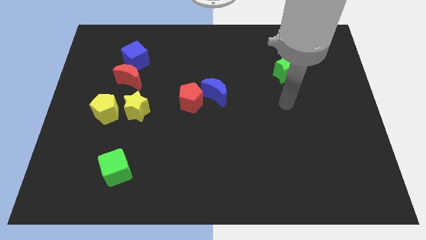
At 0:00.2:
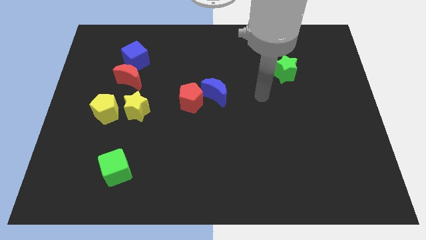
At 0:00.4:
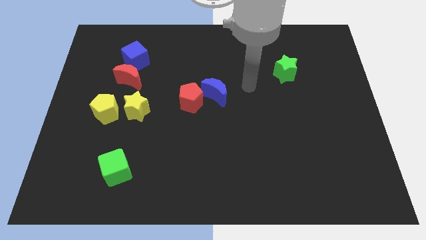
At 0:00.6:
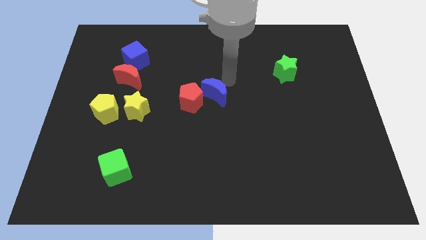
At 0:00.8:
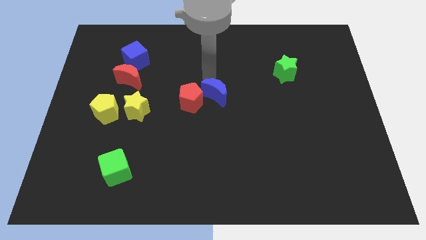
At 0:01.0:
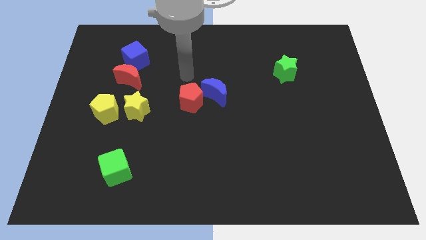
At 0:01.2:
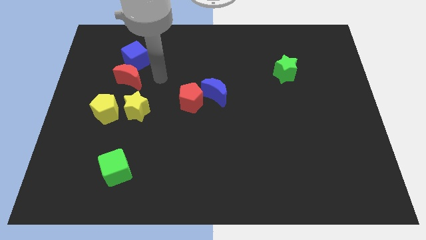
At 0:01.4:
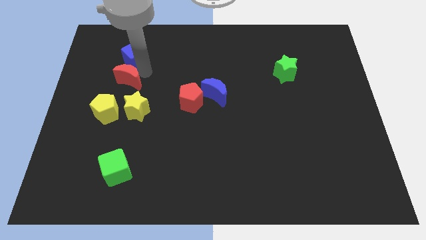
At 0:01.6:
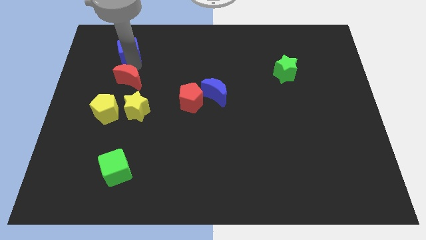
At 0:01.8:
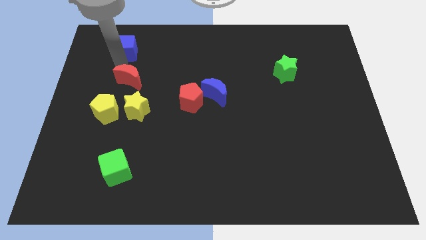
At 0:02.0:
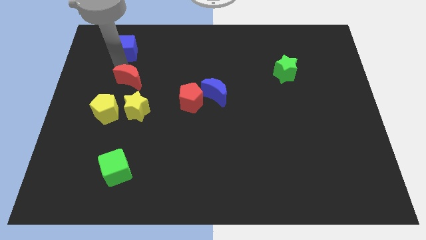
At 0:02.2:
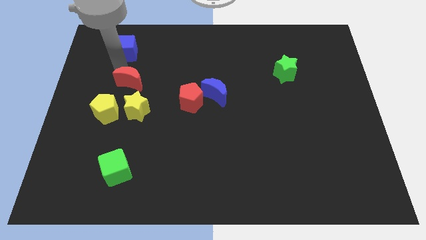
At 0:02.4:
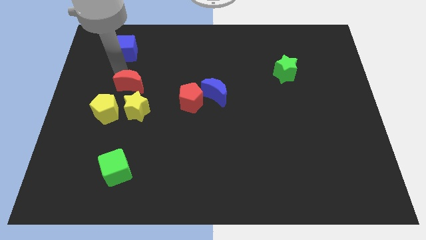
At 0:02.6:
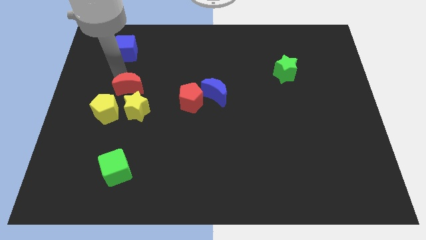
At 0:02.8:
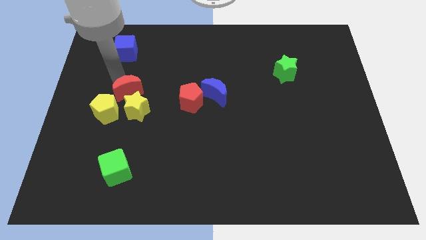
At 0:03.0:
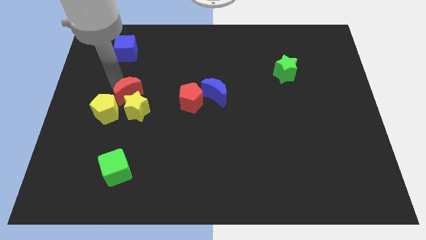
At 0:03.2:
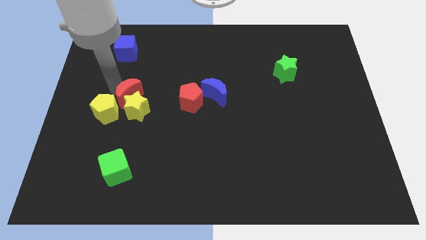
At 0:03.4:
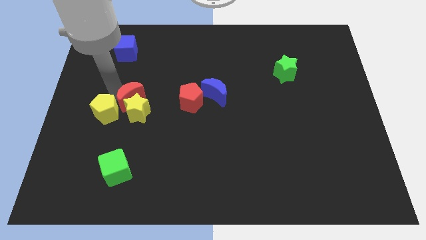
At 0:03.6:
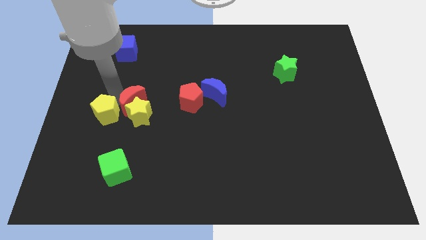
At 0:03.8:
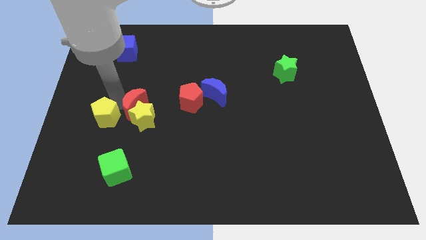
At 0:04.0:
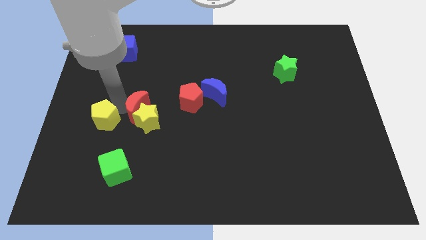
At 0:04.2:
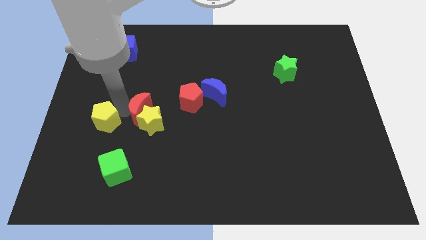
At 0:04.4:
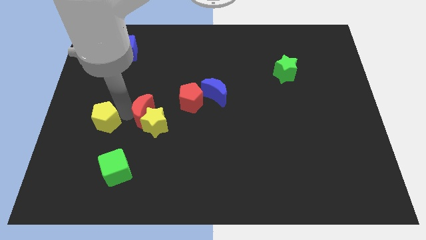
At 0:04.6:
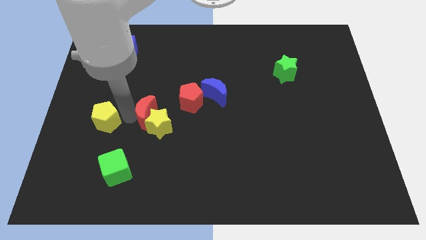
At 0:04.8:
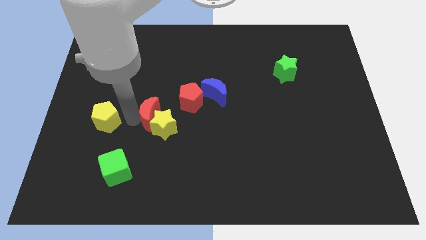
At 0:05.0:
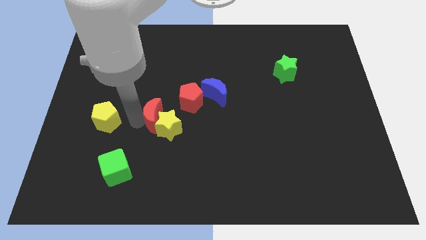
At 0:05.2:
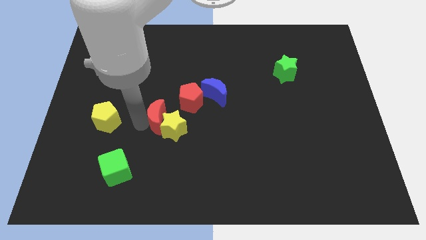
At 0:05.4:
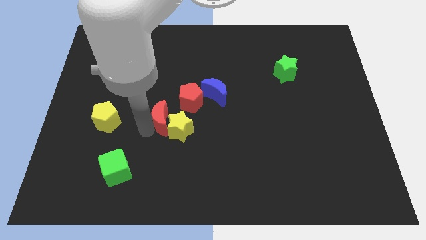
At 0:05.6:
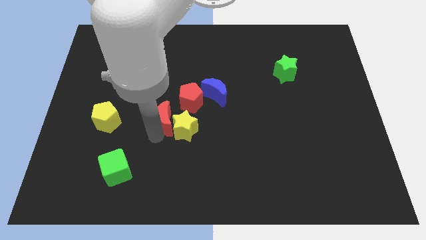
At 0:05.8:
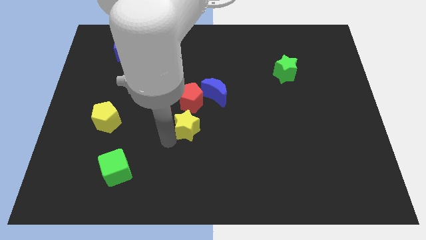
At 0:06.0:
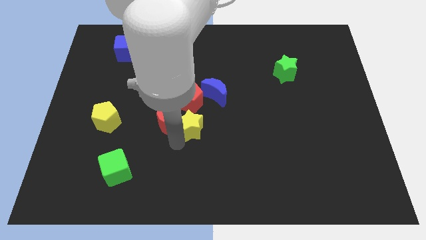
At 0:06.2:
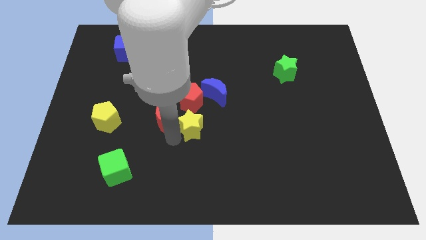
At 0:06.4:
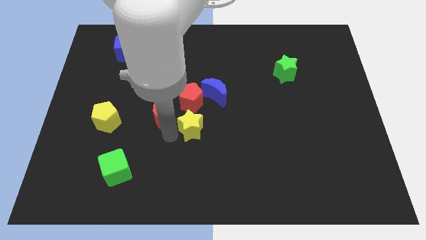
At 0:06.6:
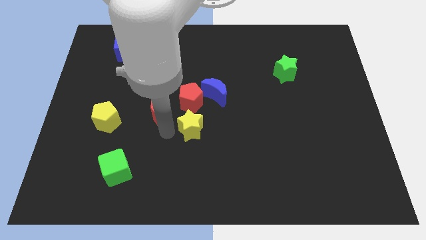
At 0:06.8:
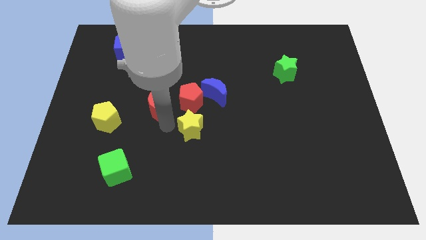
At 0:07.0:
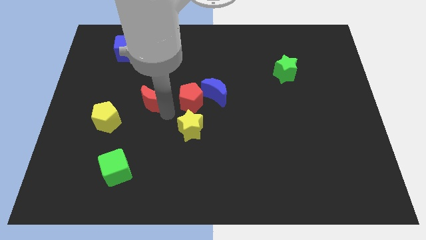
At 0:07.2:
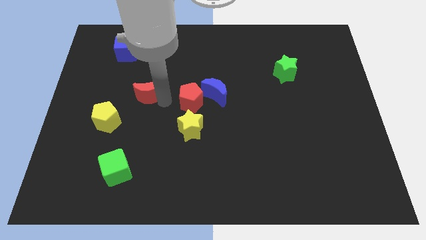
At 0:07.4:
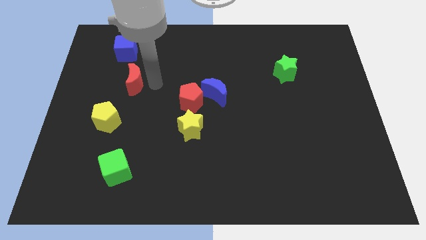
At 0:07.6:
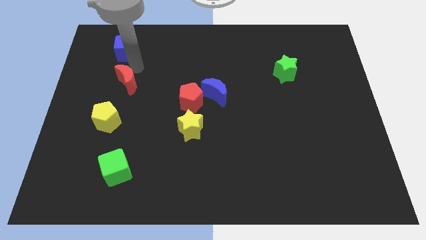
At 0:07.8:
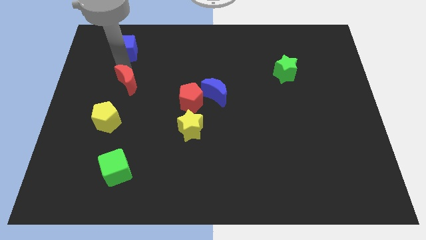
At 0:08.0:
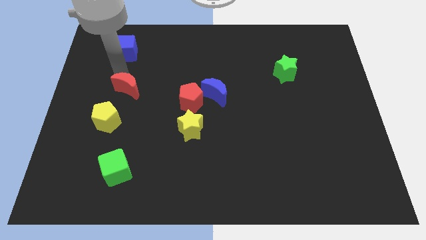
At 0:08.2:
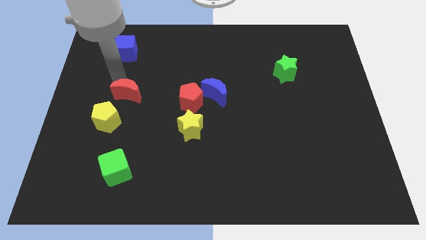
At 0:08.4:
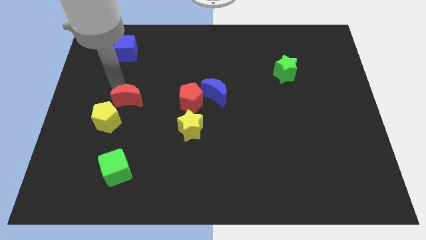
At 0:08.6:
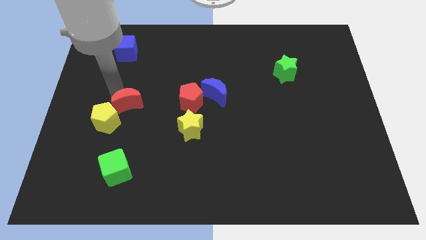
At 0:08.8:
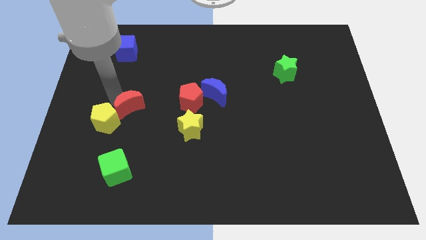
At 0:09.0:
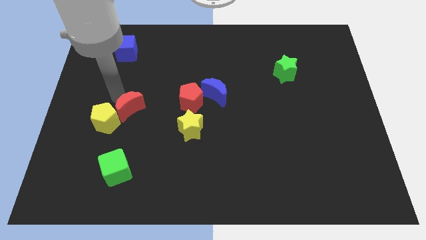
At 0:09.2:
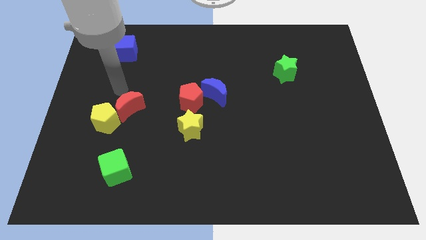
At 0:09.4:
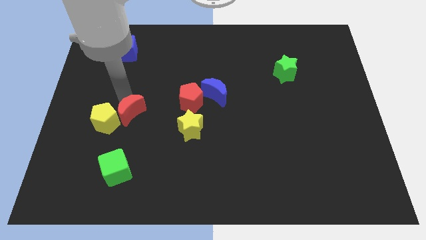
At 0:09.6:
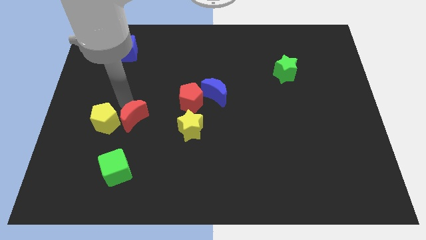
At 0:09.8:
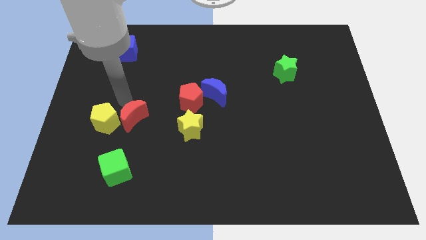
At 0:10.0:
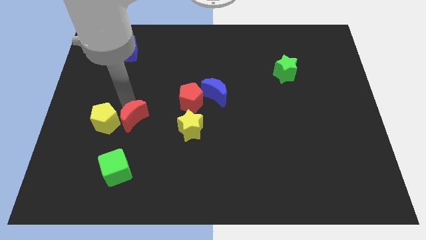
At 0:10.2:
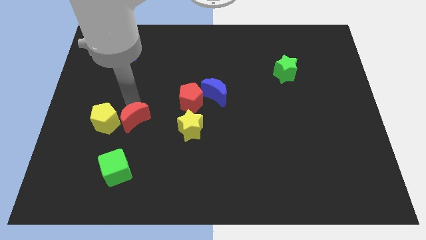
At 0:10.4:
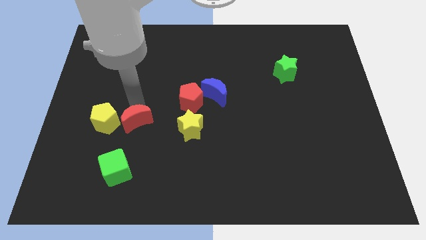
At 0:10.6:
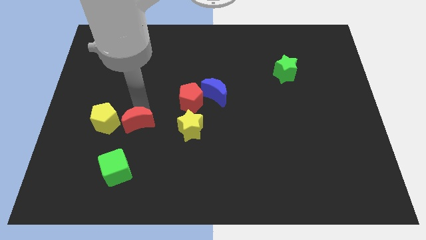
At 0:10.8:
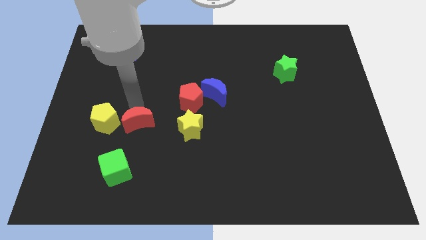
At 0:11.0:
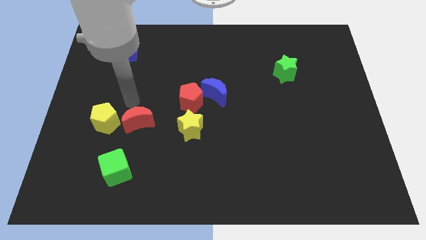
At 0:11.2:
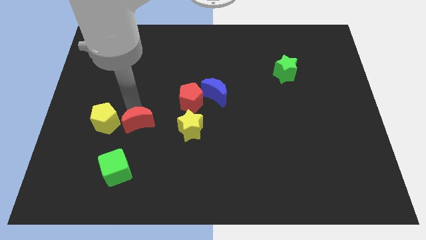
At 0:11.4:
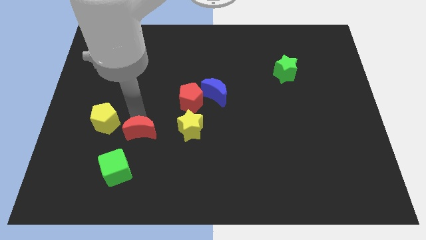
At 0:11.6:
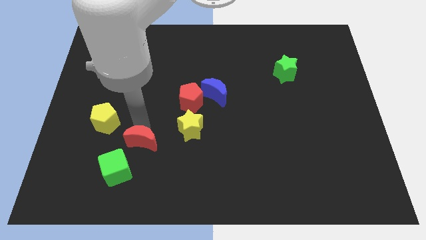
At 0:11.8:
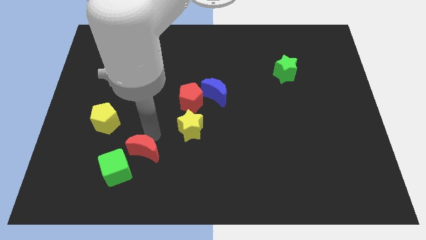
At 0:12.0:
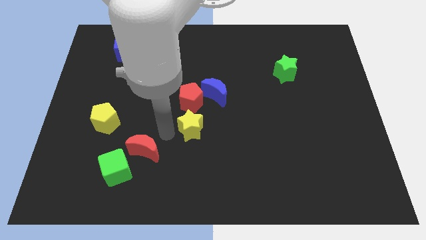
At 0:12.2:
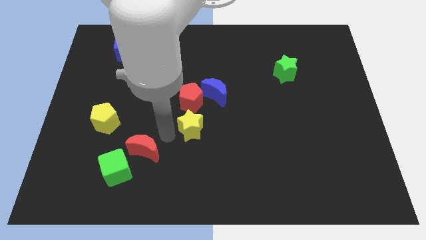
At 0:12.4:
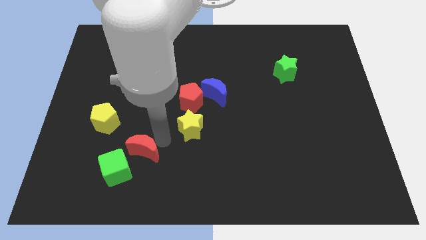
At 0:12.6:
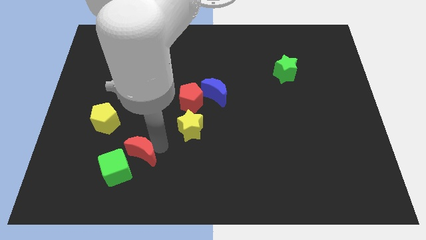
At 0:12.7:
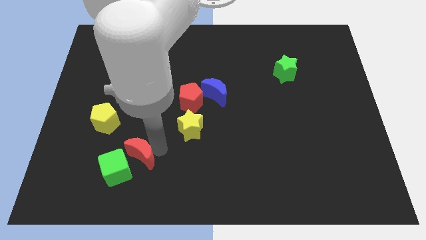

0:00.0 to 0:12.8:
move the red moon to the green cube
